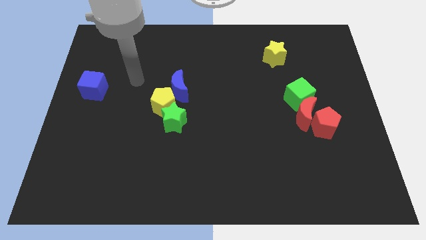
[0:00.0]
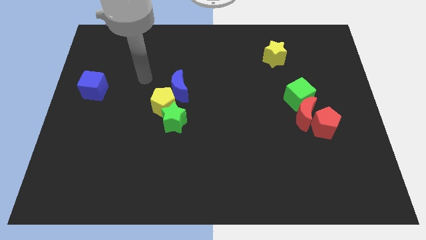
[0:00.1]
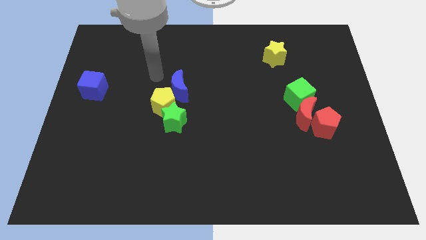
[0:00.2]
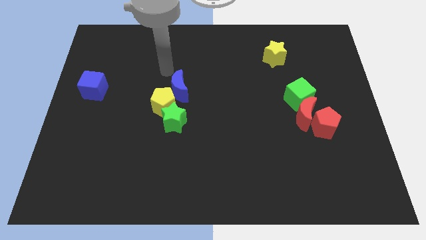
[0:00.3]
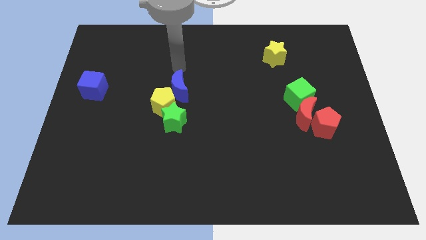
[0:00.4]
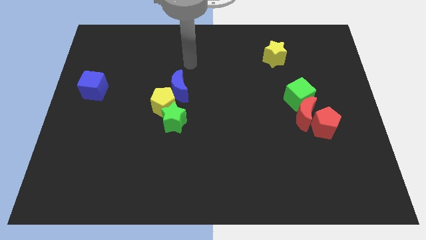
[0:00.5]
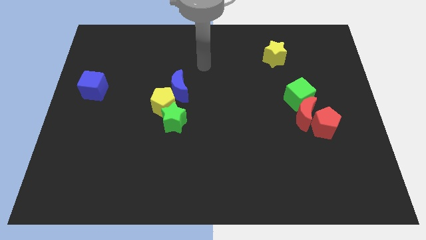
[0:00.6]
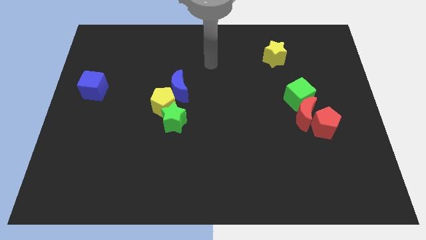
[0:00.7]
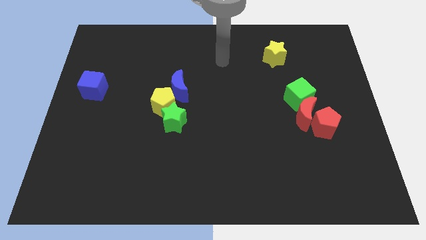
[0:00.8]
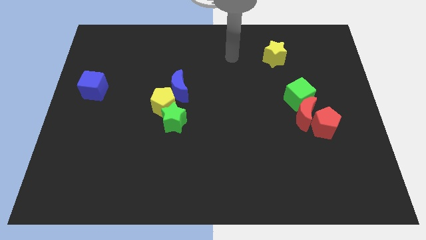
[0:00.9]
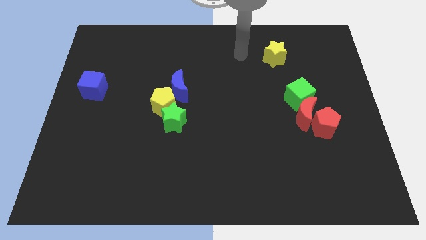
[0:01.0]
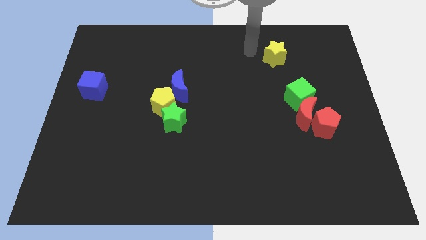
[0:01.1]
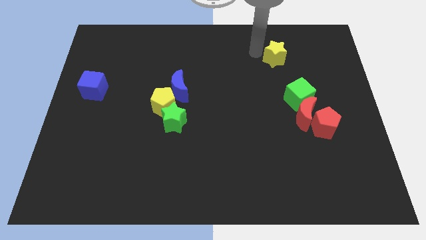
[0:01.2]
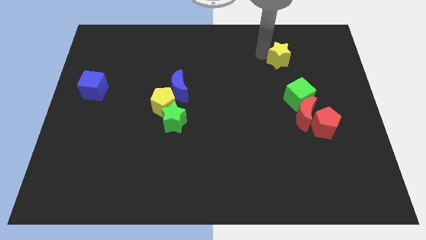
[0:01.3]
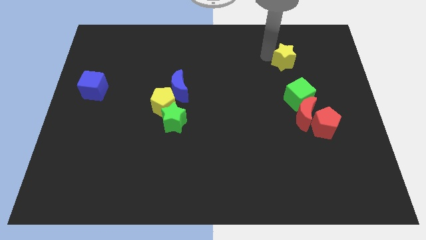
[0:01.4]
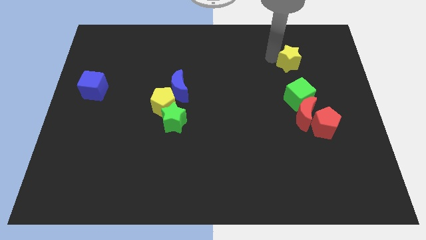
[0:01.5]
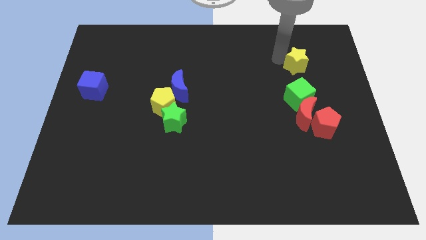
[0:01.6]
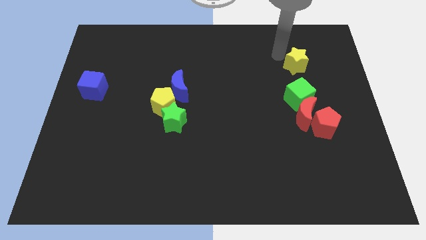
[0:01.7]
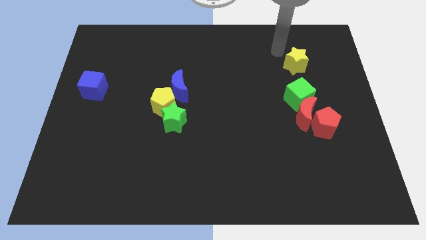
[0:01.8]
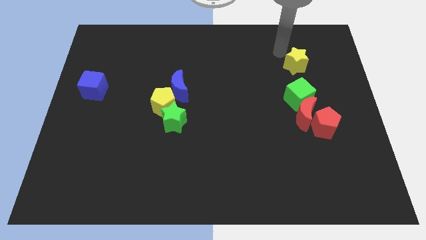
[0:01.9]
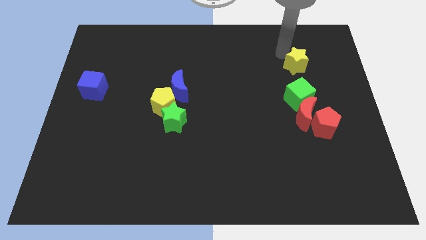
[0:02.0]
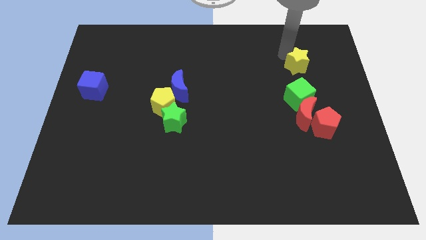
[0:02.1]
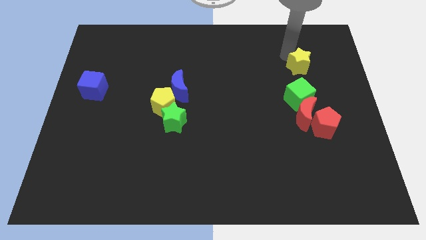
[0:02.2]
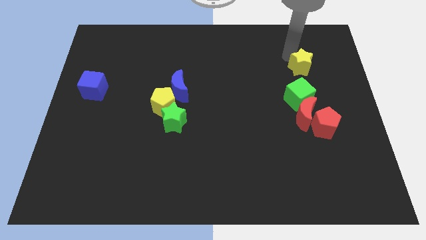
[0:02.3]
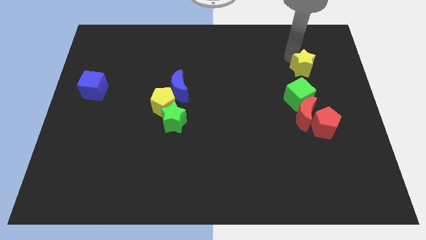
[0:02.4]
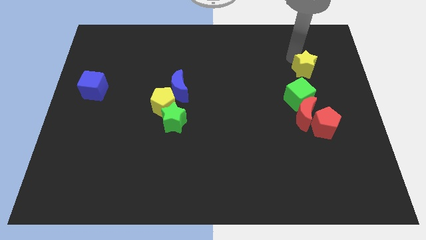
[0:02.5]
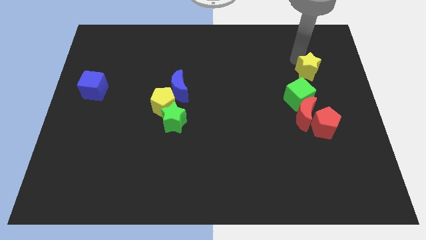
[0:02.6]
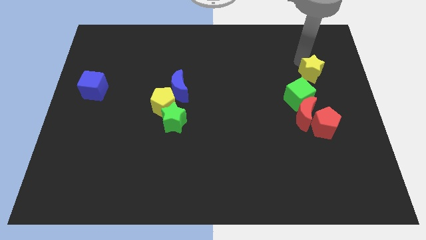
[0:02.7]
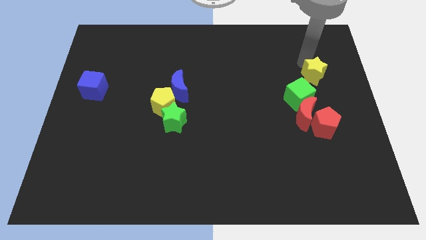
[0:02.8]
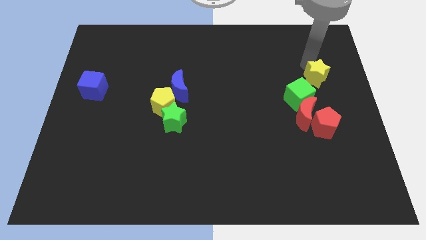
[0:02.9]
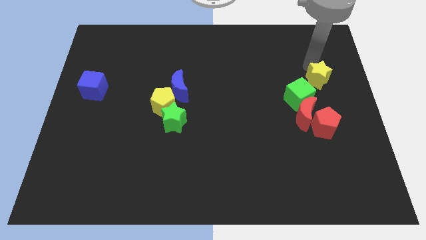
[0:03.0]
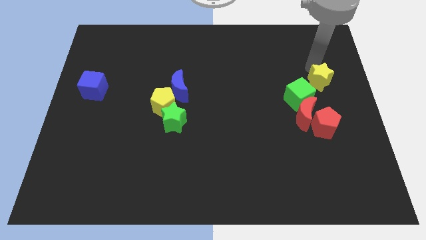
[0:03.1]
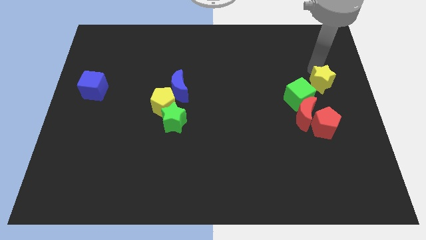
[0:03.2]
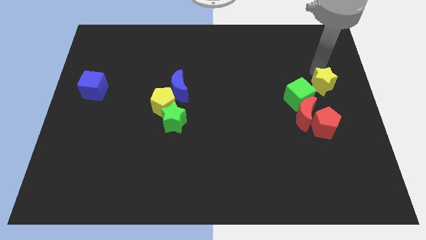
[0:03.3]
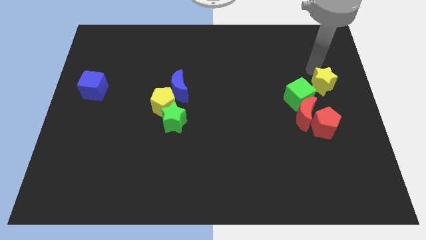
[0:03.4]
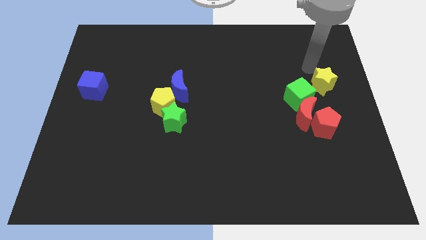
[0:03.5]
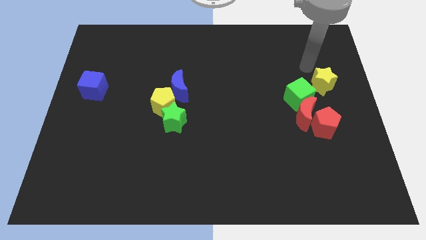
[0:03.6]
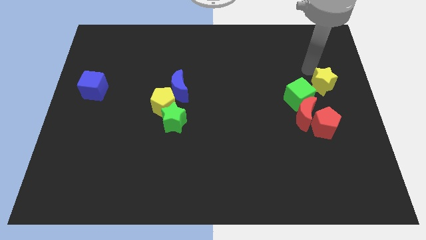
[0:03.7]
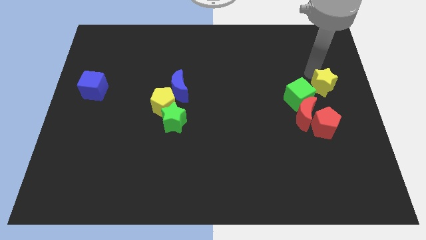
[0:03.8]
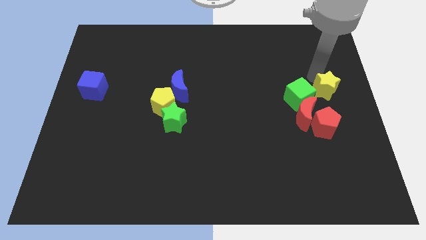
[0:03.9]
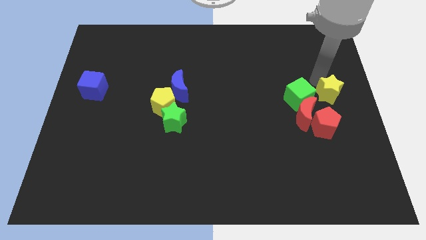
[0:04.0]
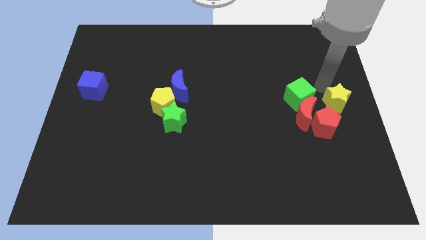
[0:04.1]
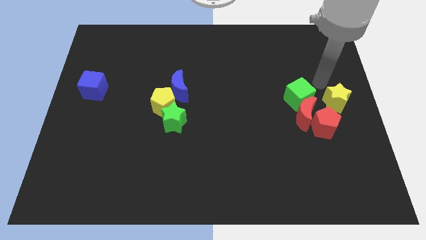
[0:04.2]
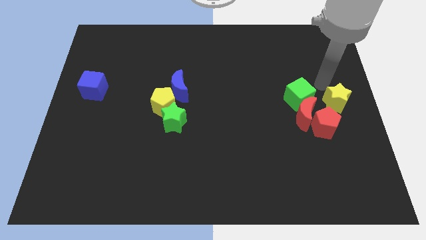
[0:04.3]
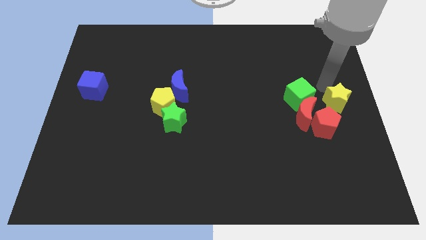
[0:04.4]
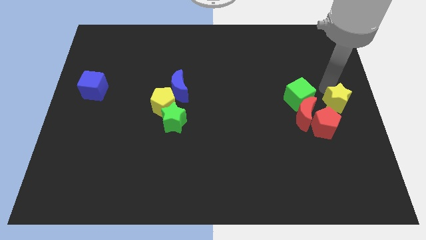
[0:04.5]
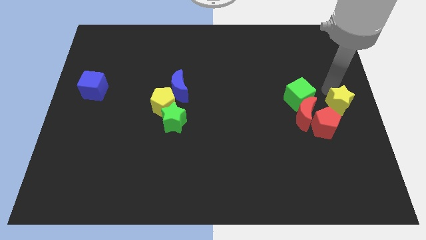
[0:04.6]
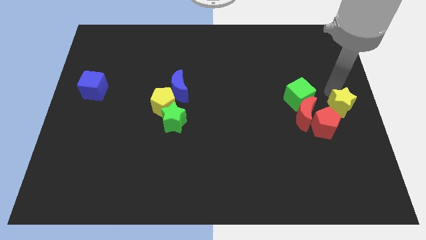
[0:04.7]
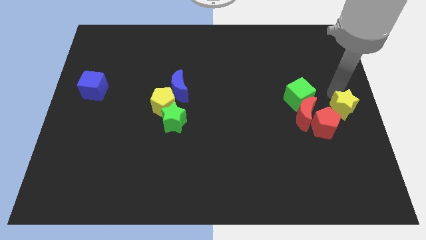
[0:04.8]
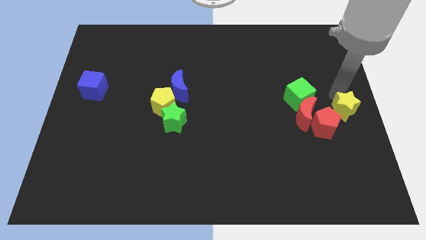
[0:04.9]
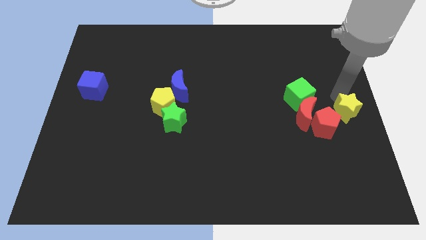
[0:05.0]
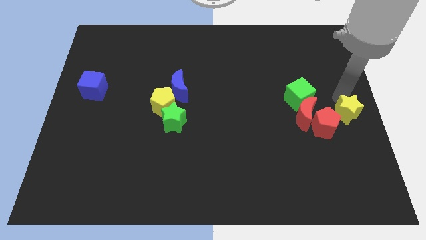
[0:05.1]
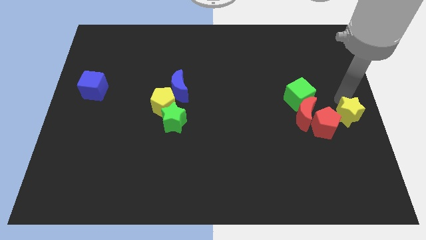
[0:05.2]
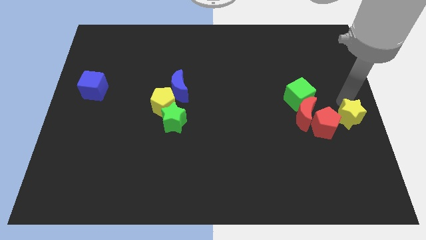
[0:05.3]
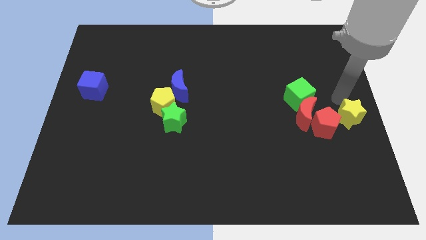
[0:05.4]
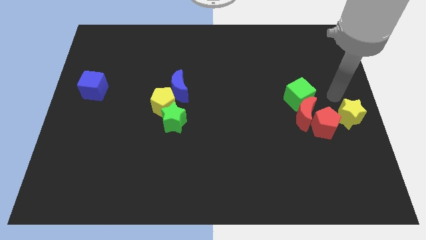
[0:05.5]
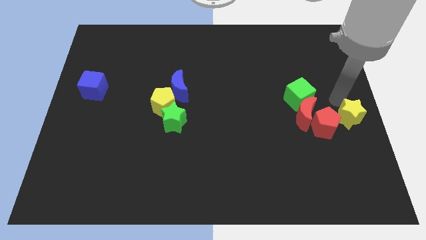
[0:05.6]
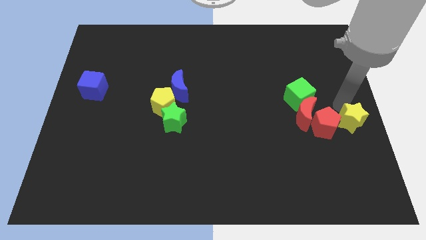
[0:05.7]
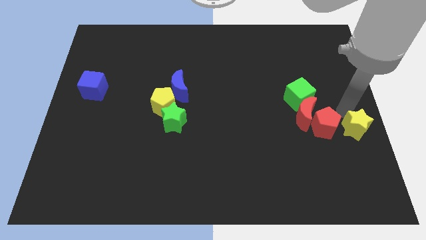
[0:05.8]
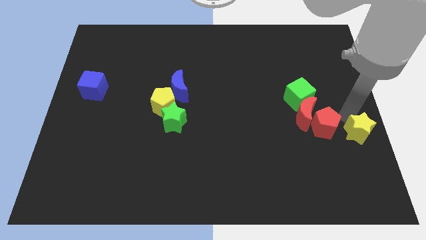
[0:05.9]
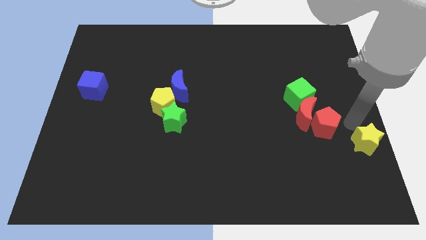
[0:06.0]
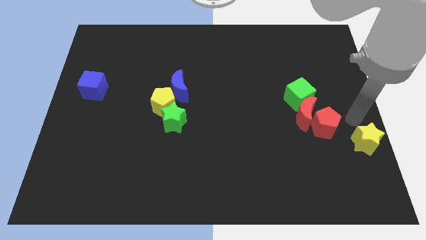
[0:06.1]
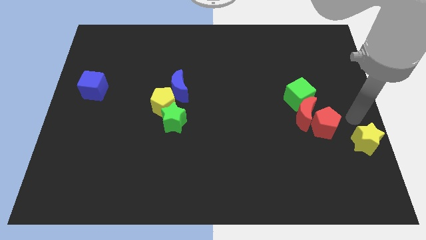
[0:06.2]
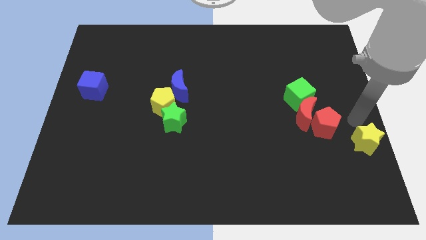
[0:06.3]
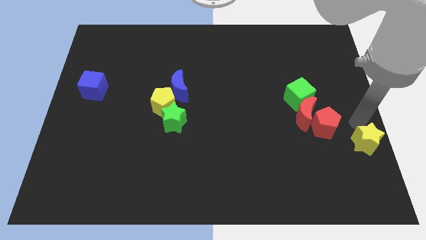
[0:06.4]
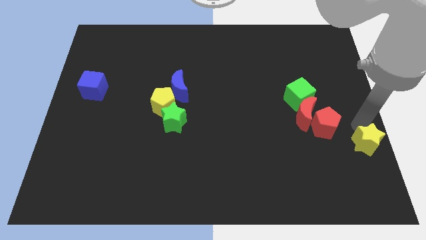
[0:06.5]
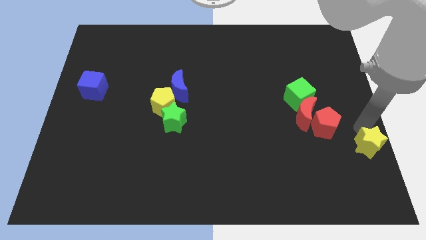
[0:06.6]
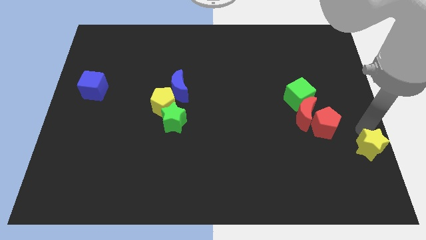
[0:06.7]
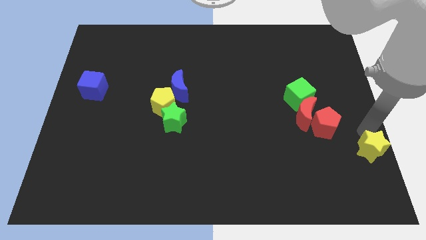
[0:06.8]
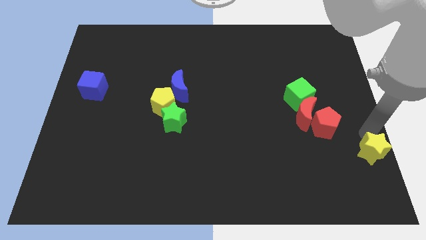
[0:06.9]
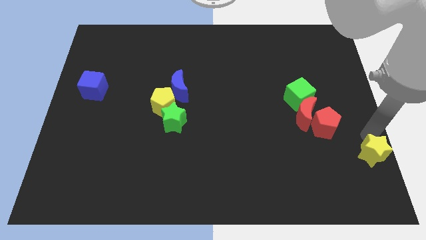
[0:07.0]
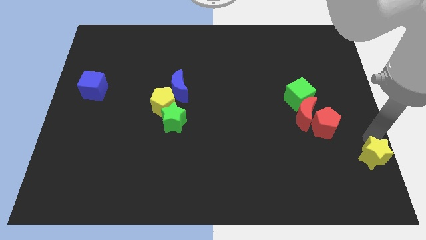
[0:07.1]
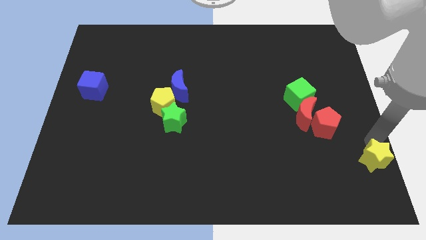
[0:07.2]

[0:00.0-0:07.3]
push the yellow star to the bottom right
